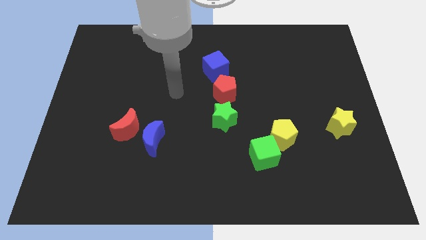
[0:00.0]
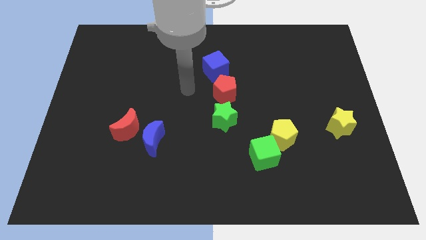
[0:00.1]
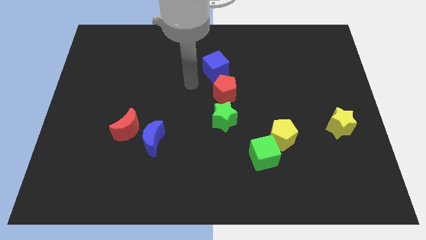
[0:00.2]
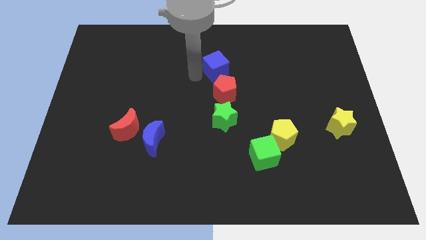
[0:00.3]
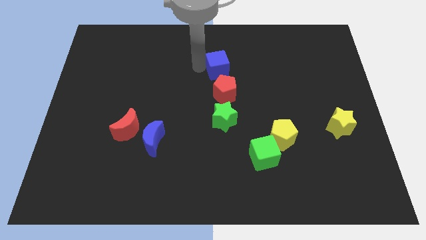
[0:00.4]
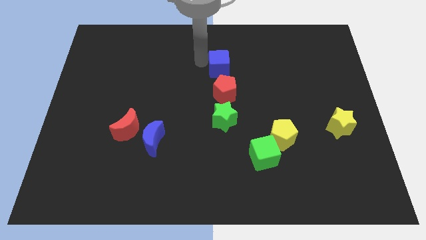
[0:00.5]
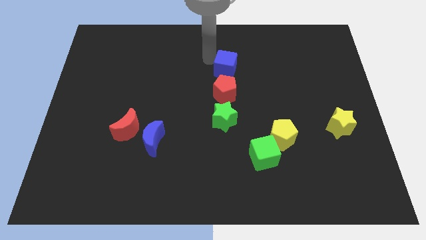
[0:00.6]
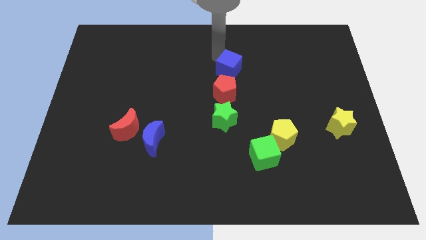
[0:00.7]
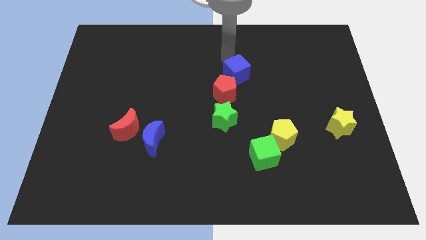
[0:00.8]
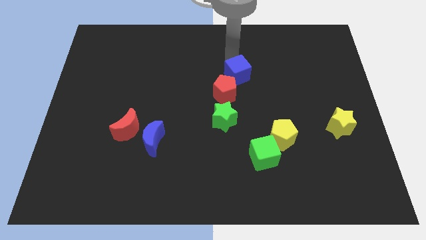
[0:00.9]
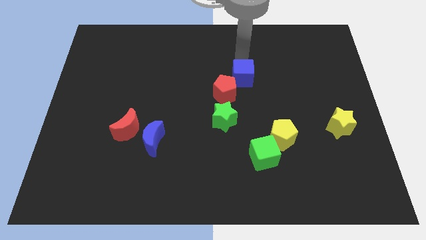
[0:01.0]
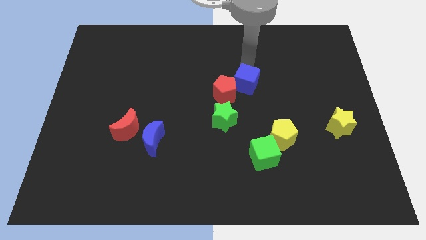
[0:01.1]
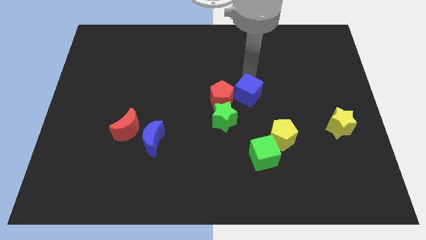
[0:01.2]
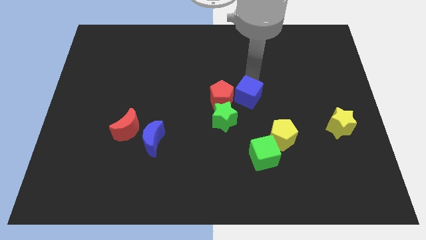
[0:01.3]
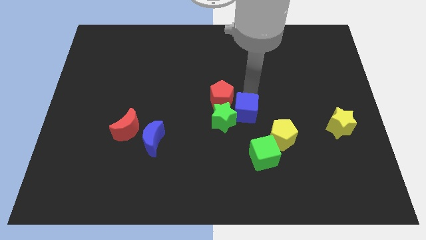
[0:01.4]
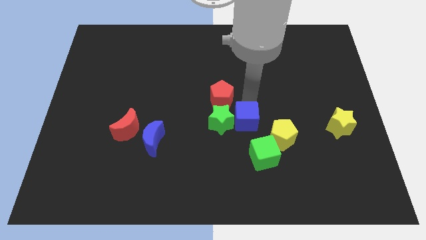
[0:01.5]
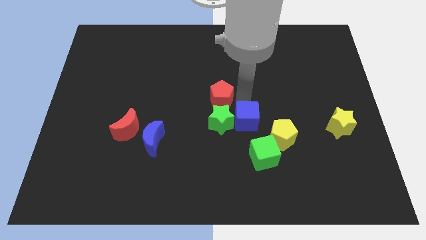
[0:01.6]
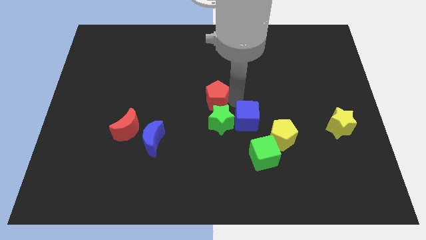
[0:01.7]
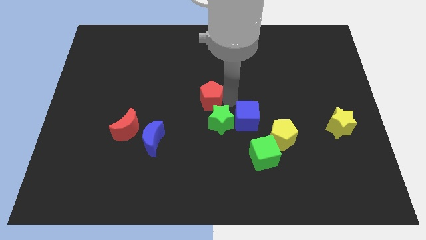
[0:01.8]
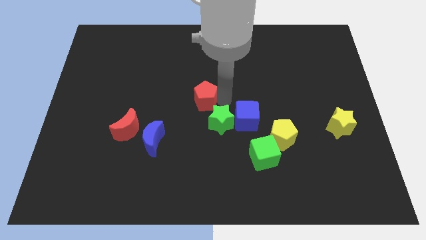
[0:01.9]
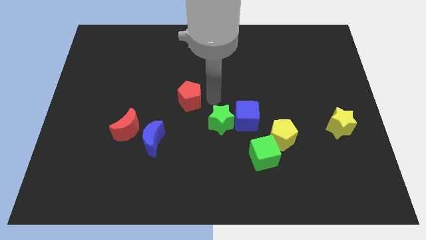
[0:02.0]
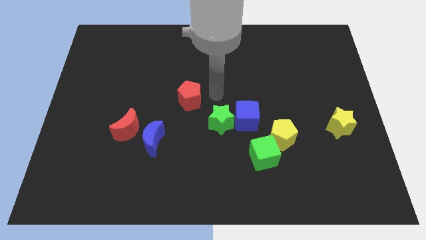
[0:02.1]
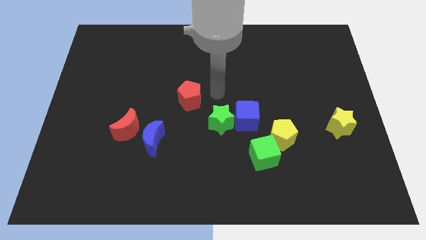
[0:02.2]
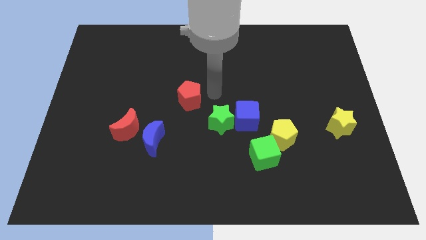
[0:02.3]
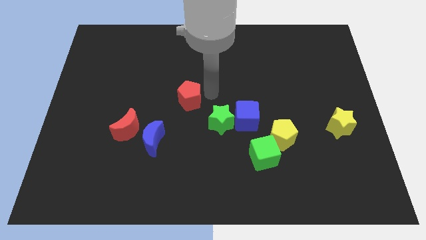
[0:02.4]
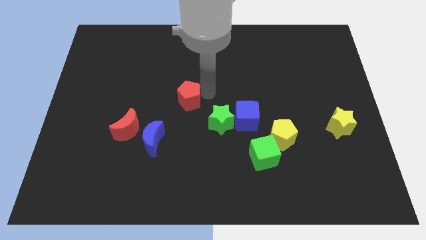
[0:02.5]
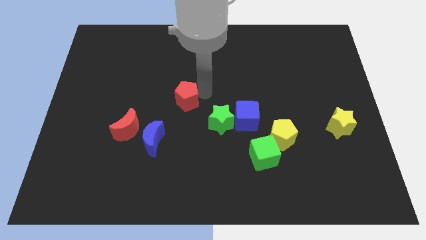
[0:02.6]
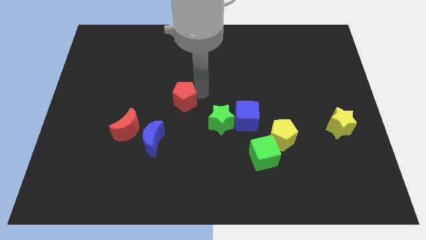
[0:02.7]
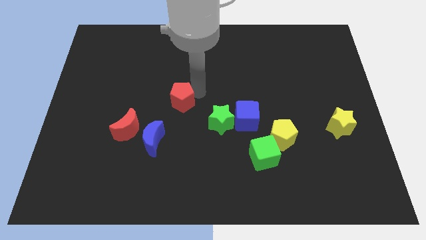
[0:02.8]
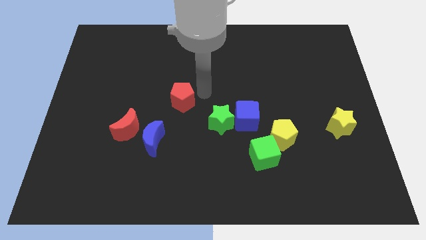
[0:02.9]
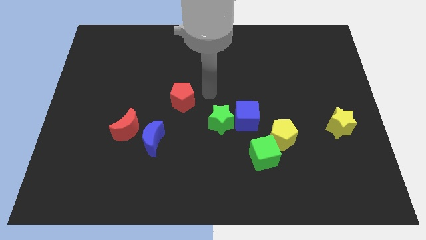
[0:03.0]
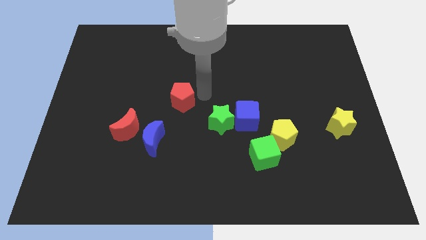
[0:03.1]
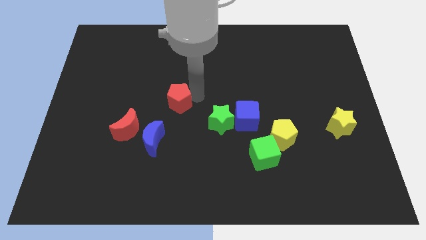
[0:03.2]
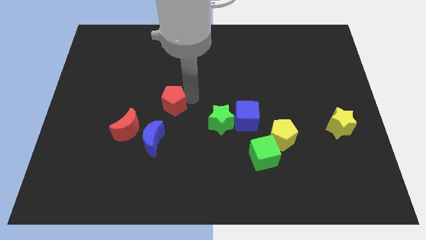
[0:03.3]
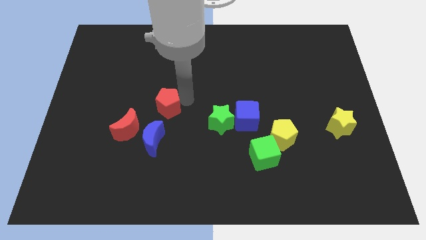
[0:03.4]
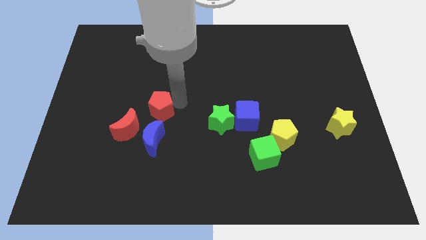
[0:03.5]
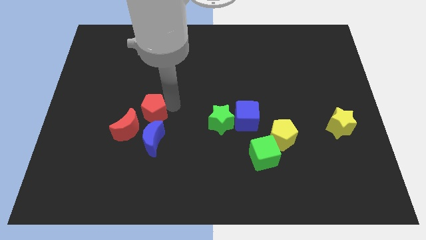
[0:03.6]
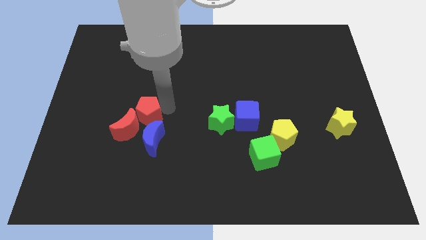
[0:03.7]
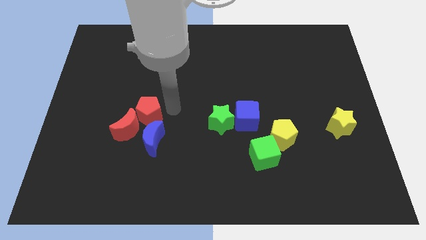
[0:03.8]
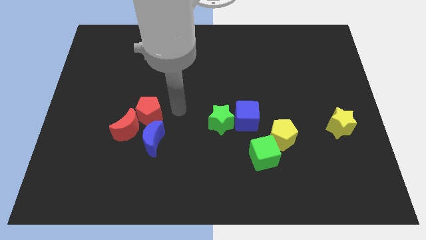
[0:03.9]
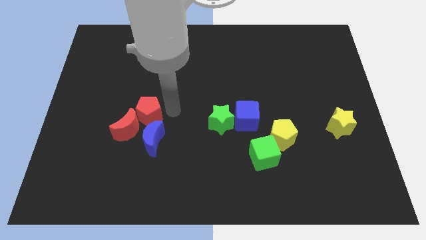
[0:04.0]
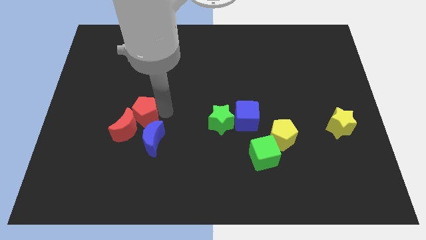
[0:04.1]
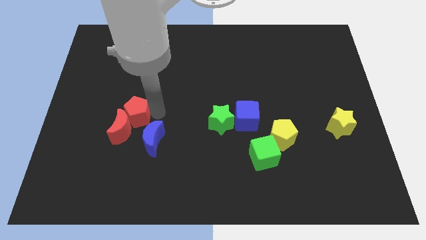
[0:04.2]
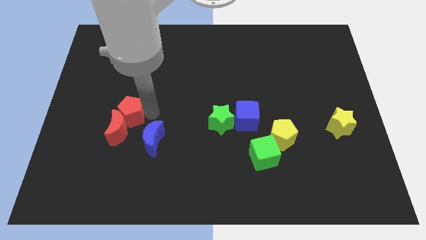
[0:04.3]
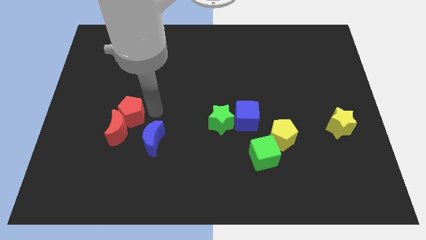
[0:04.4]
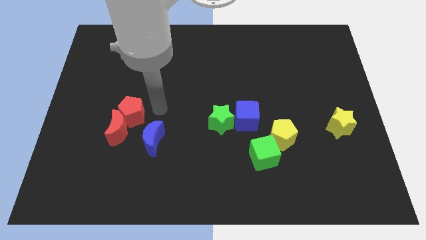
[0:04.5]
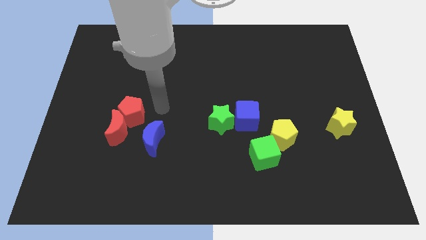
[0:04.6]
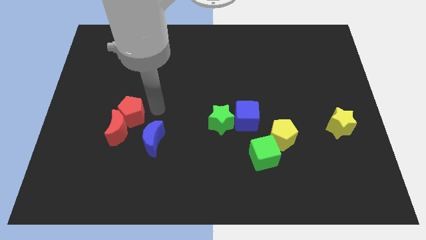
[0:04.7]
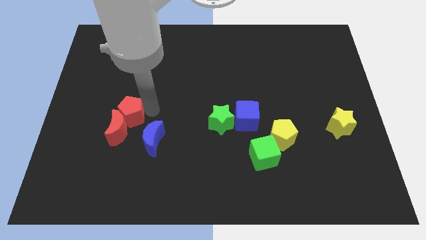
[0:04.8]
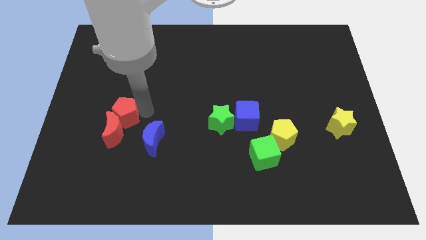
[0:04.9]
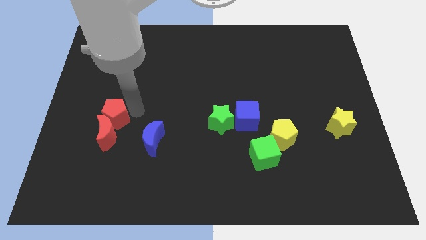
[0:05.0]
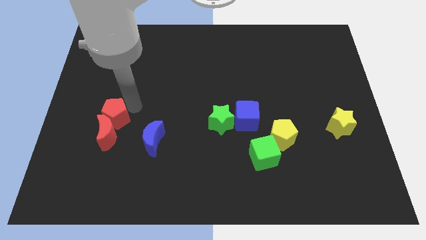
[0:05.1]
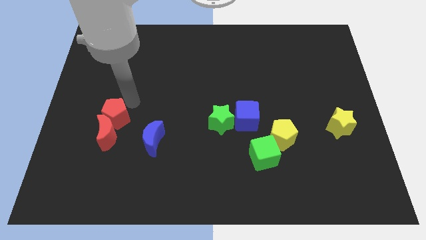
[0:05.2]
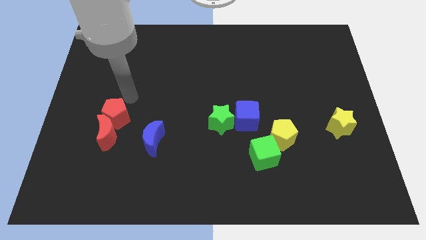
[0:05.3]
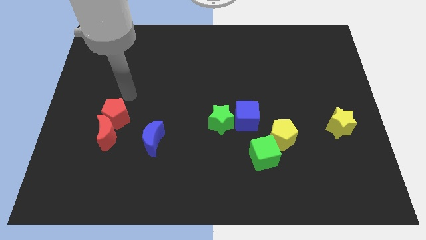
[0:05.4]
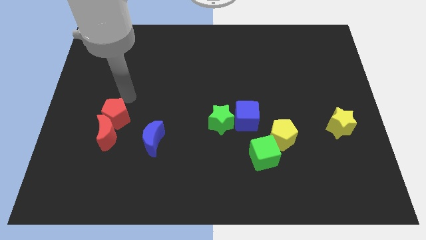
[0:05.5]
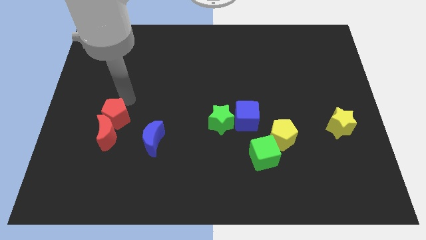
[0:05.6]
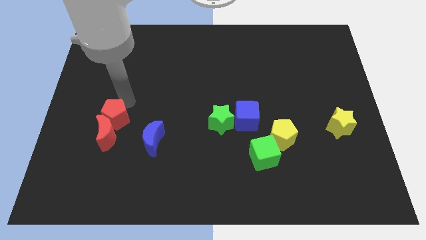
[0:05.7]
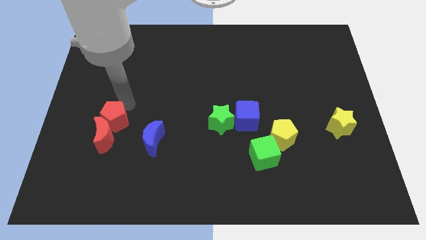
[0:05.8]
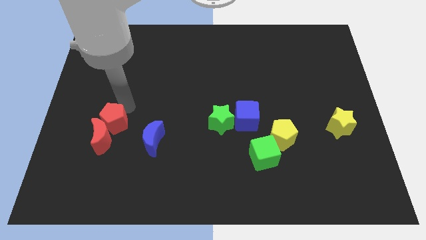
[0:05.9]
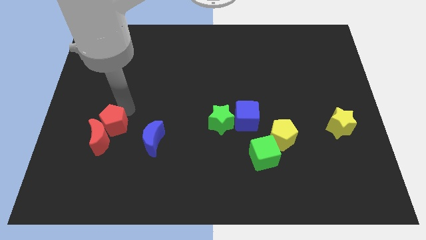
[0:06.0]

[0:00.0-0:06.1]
put the red pentagon left of the blue moon

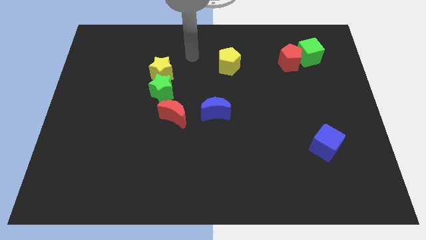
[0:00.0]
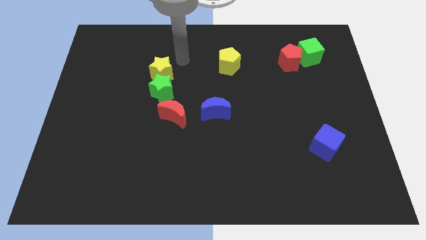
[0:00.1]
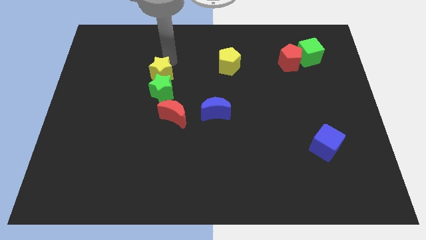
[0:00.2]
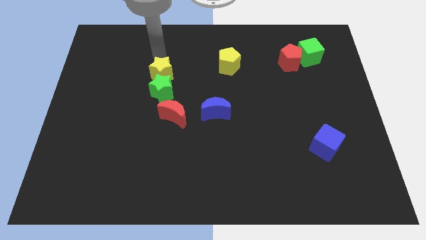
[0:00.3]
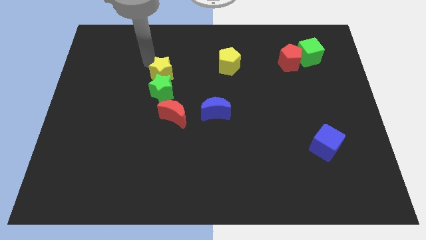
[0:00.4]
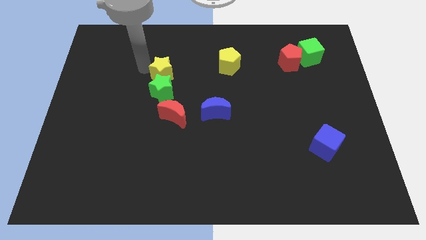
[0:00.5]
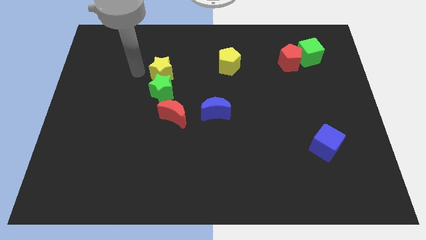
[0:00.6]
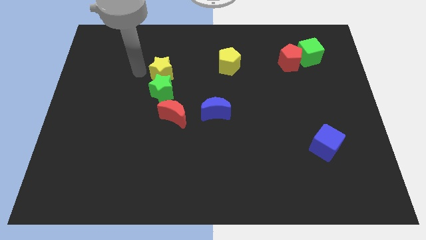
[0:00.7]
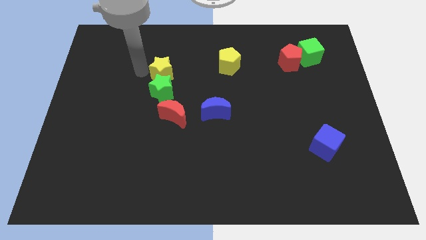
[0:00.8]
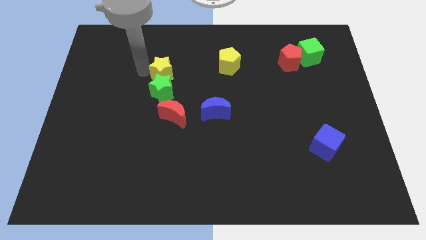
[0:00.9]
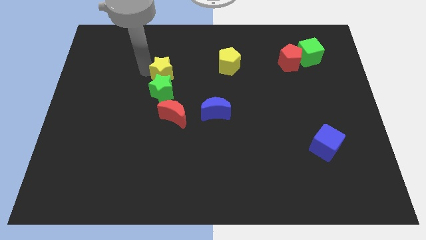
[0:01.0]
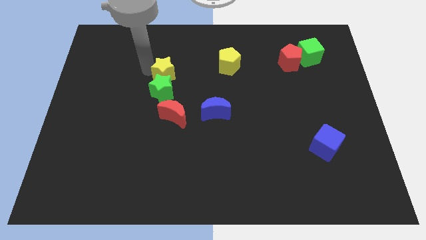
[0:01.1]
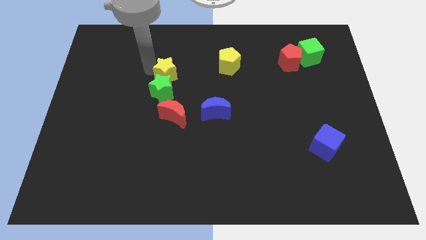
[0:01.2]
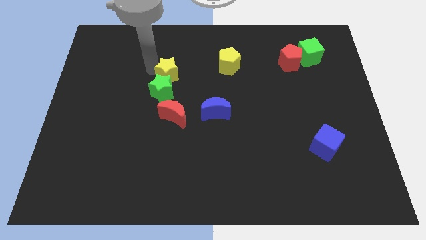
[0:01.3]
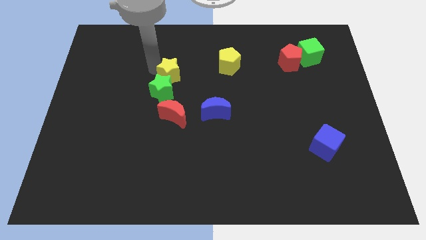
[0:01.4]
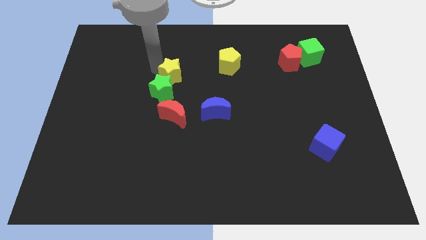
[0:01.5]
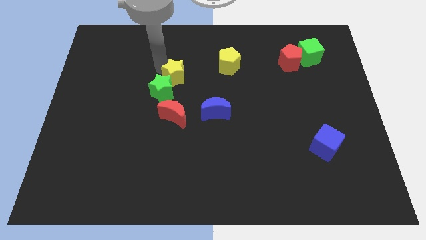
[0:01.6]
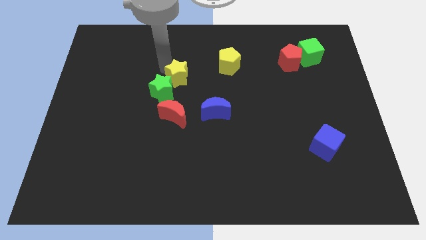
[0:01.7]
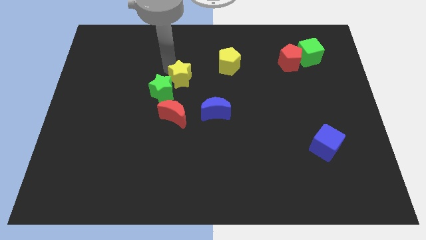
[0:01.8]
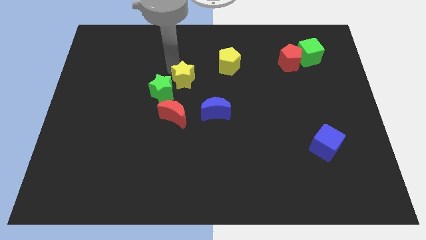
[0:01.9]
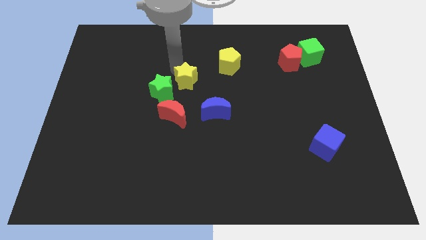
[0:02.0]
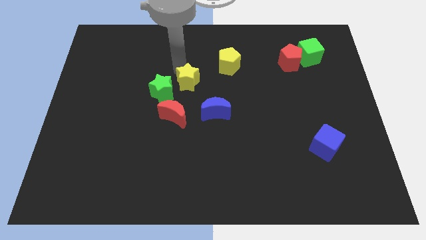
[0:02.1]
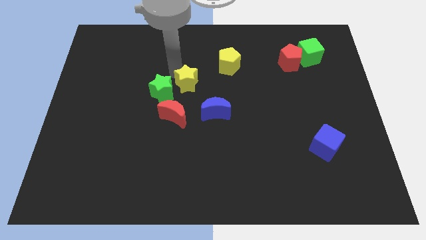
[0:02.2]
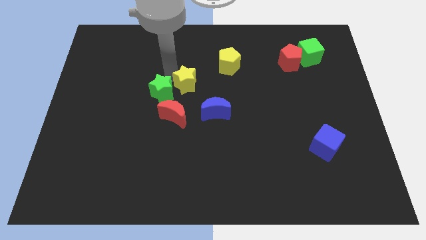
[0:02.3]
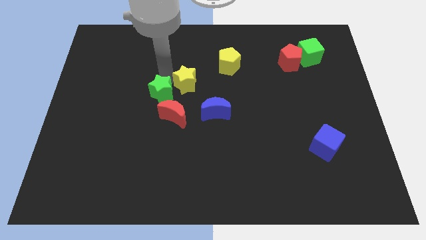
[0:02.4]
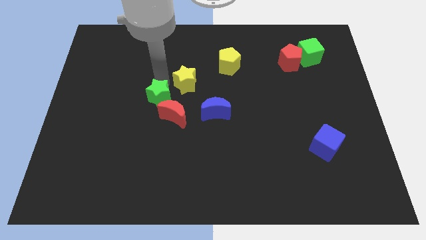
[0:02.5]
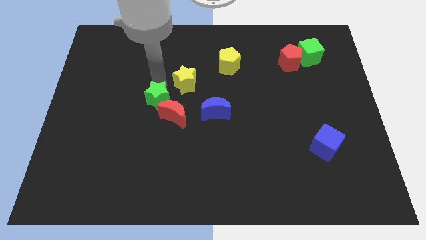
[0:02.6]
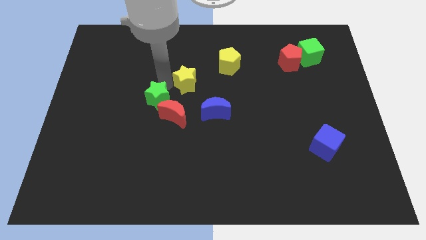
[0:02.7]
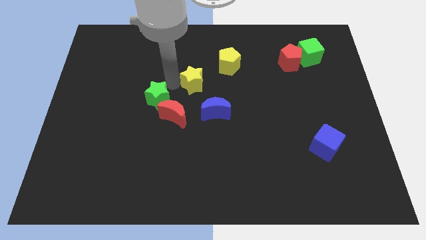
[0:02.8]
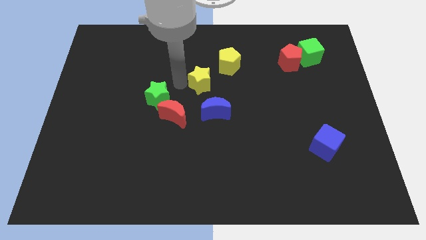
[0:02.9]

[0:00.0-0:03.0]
slide the yellow star above the blue moon
